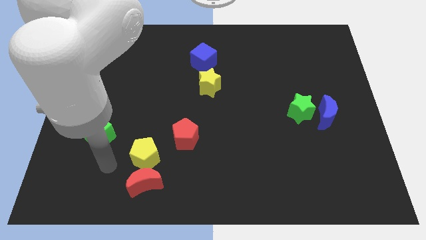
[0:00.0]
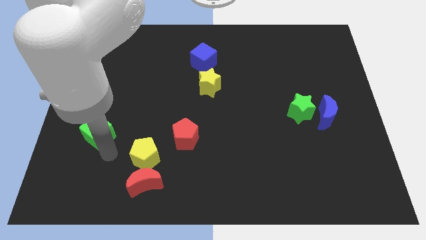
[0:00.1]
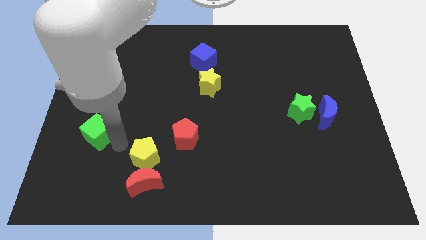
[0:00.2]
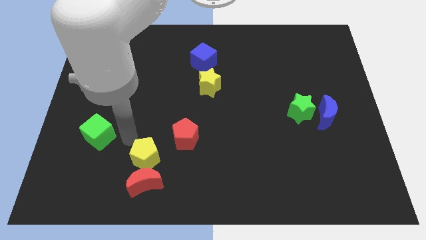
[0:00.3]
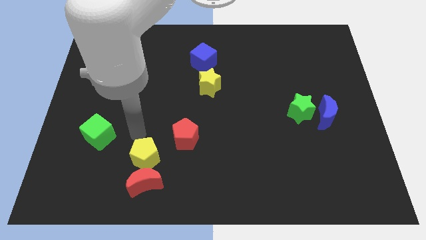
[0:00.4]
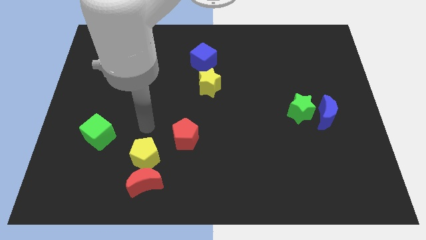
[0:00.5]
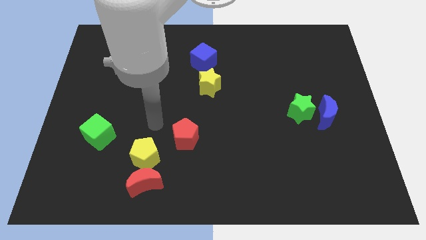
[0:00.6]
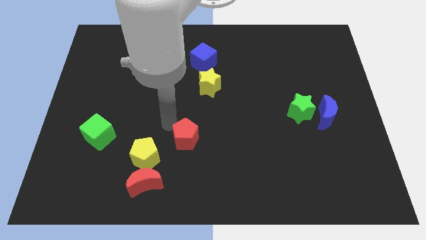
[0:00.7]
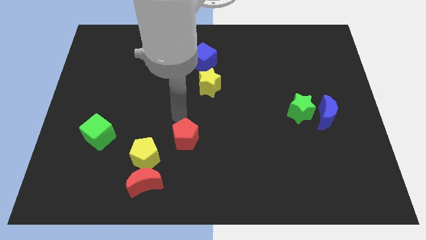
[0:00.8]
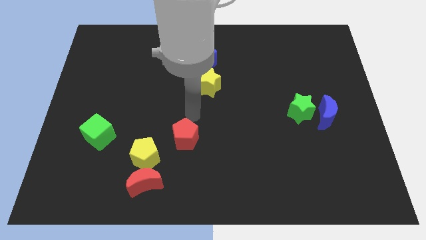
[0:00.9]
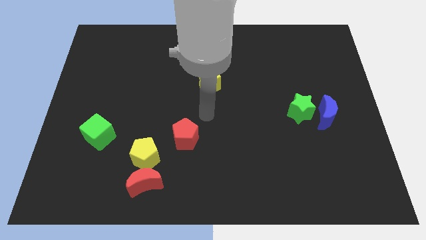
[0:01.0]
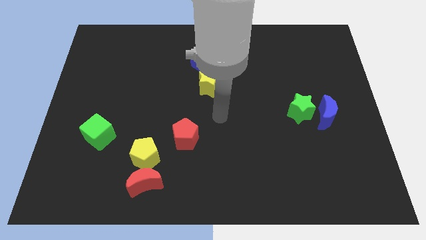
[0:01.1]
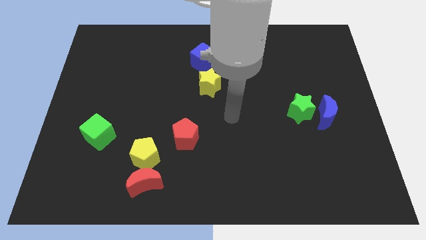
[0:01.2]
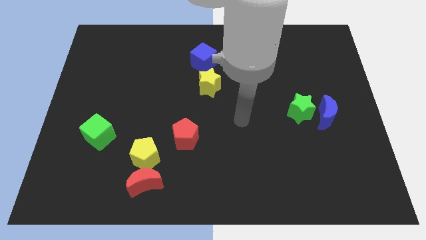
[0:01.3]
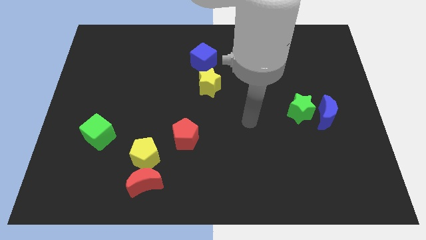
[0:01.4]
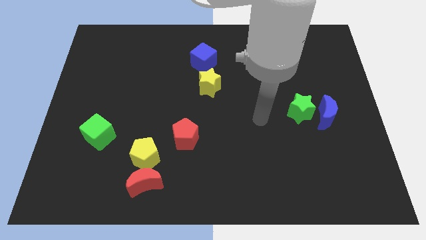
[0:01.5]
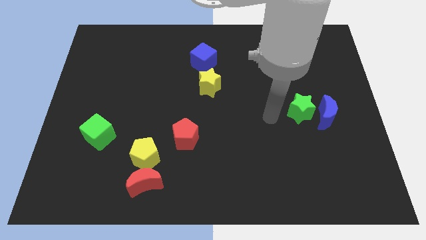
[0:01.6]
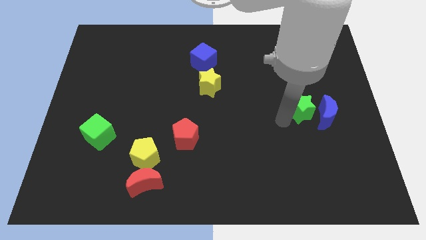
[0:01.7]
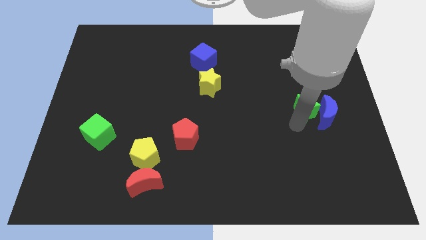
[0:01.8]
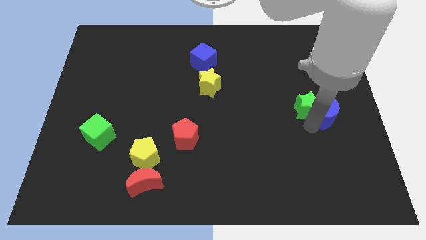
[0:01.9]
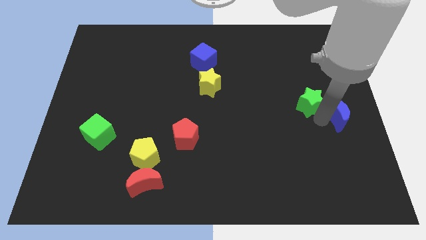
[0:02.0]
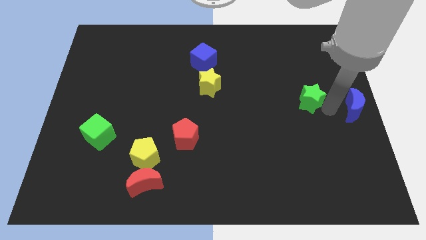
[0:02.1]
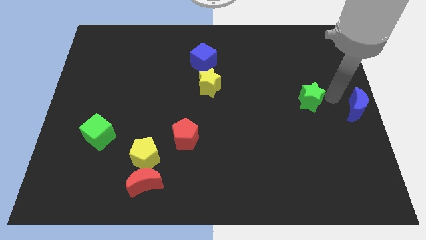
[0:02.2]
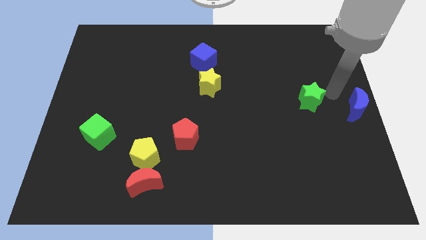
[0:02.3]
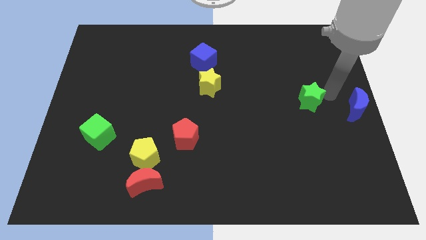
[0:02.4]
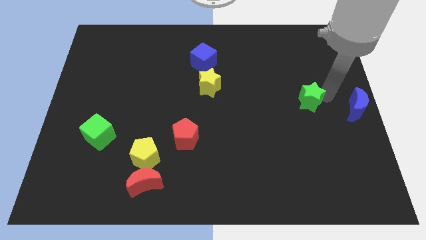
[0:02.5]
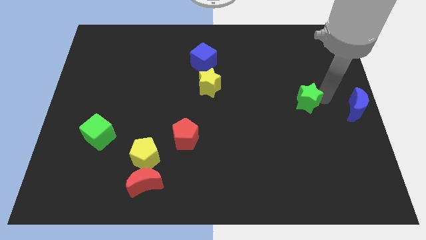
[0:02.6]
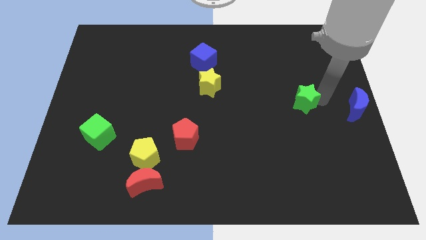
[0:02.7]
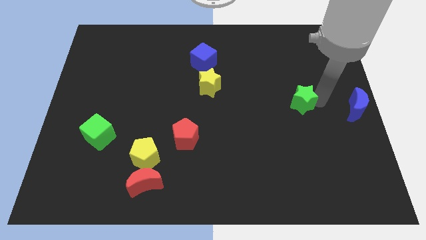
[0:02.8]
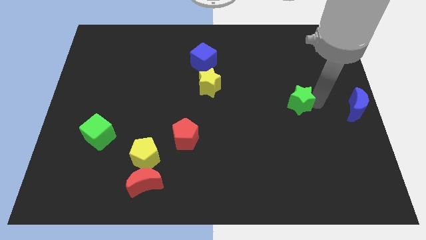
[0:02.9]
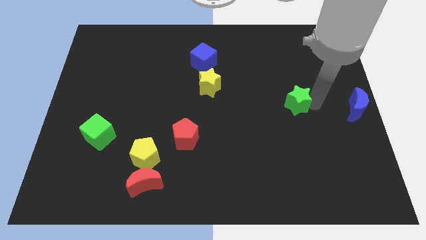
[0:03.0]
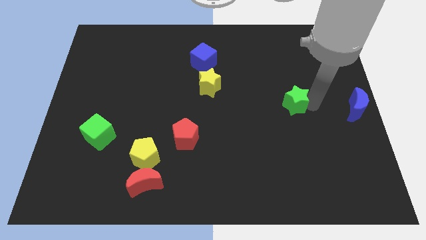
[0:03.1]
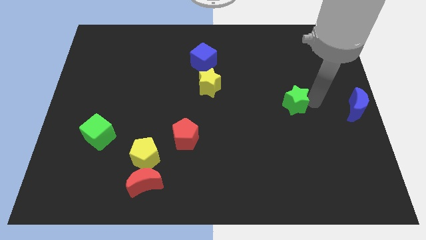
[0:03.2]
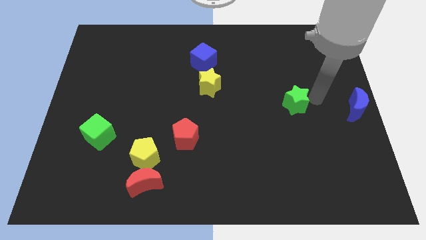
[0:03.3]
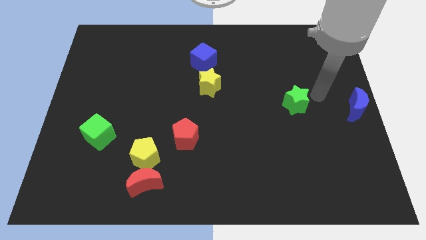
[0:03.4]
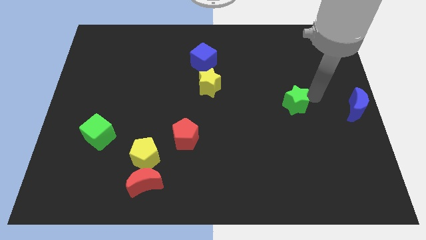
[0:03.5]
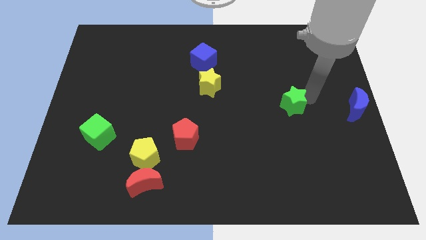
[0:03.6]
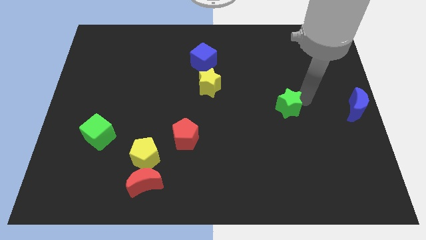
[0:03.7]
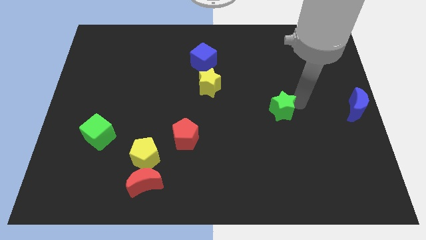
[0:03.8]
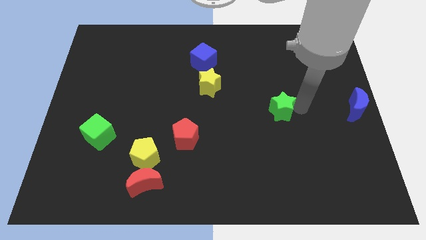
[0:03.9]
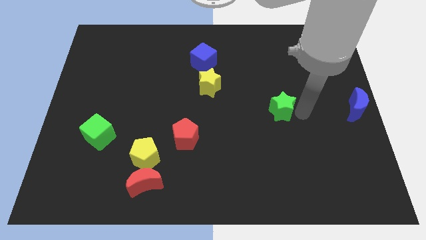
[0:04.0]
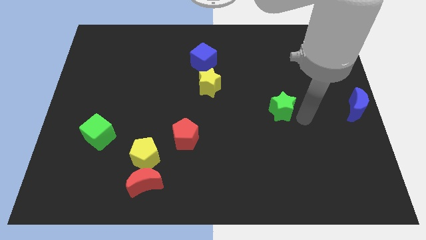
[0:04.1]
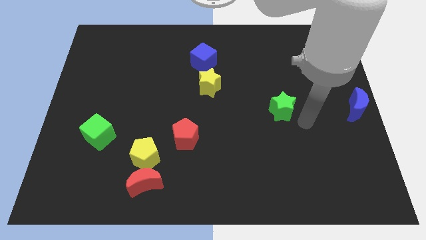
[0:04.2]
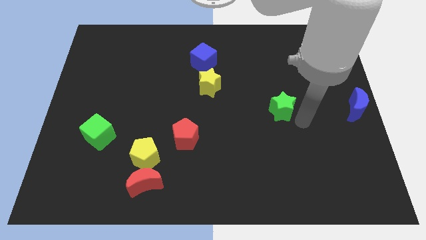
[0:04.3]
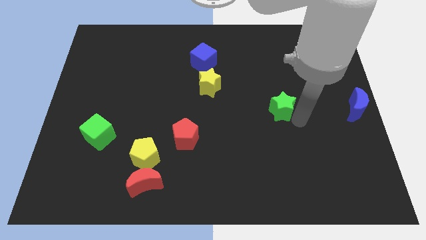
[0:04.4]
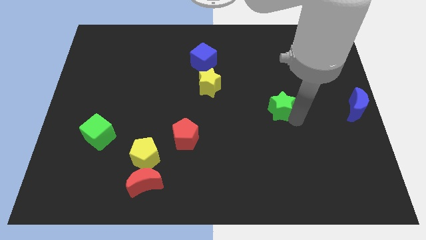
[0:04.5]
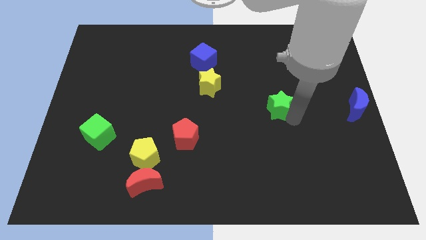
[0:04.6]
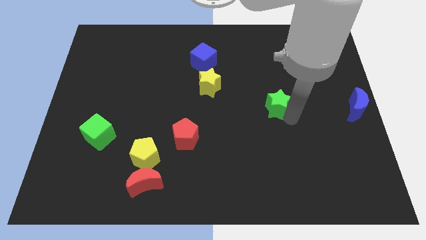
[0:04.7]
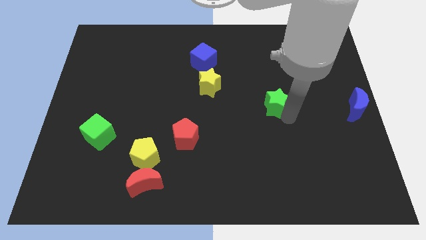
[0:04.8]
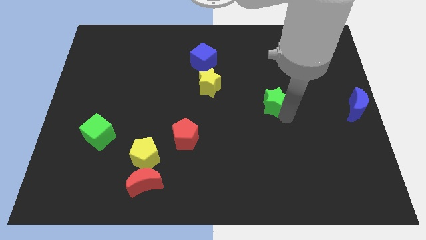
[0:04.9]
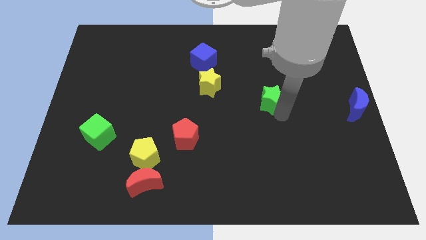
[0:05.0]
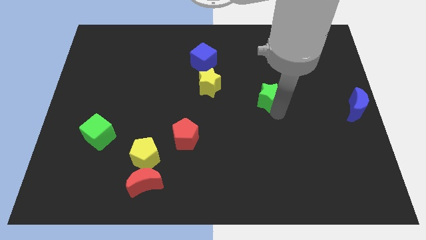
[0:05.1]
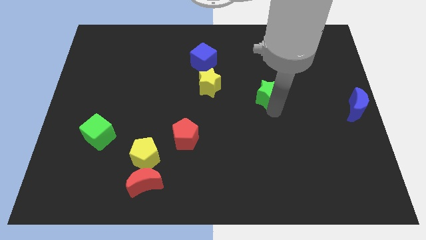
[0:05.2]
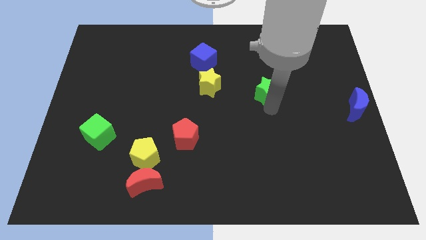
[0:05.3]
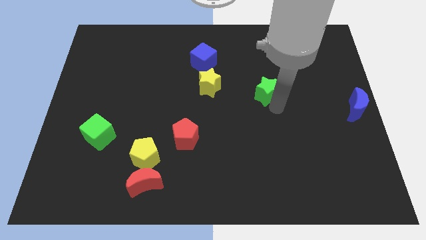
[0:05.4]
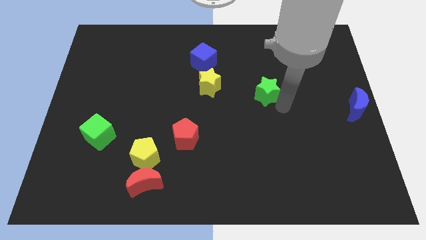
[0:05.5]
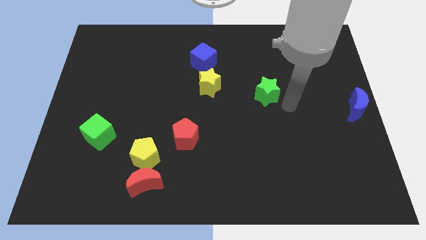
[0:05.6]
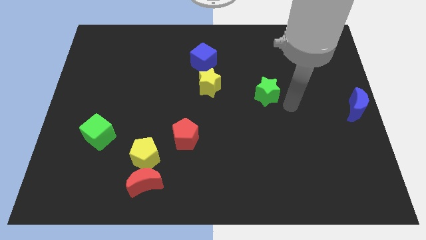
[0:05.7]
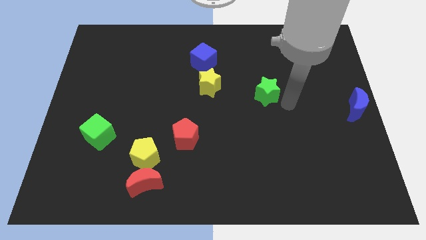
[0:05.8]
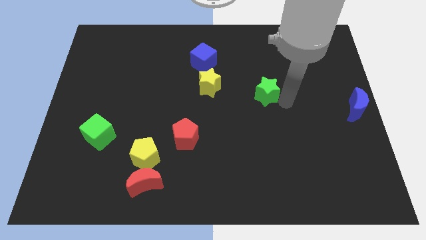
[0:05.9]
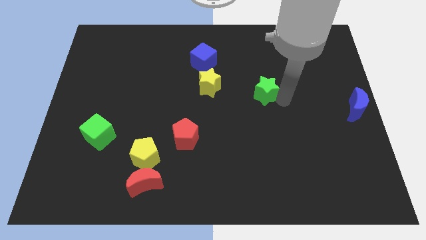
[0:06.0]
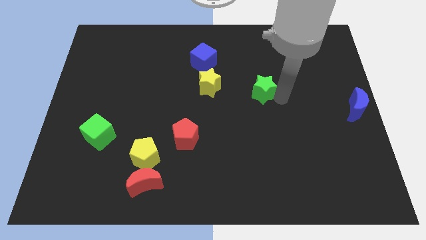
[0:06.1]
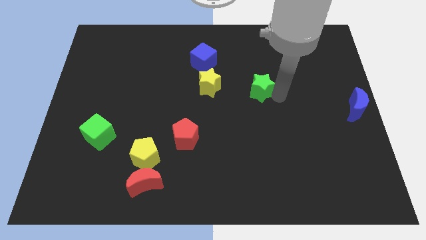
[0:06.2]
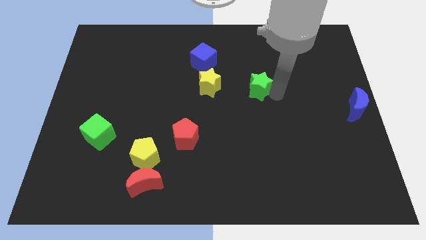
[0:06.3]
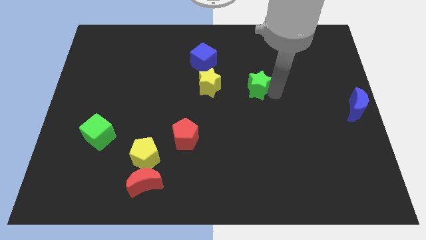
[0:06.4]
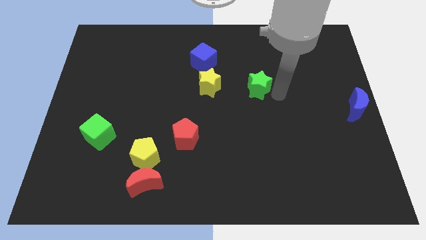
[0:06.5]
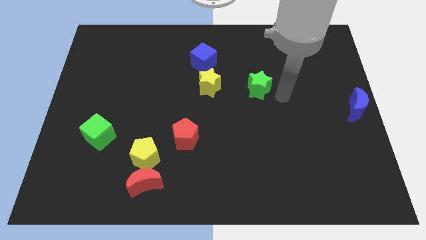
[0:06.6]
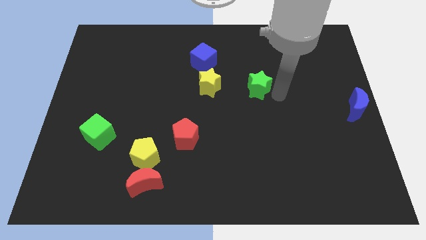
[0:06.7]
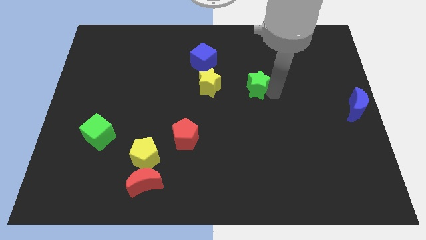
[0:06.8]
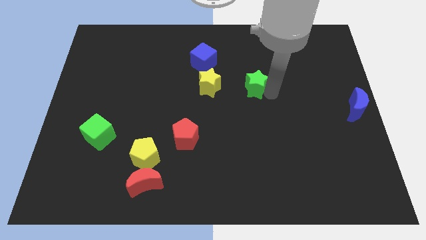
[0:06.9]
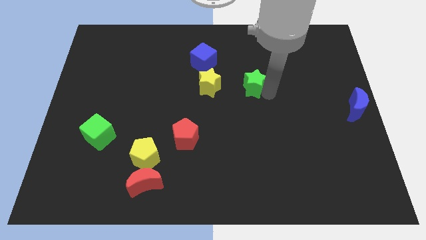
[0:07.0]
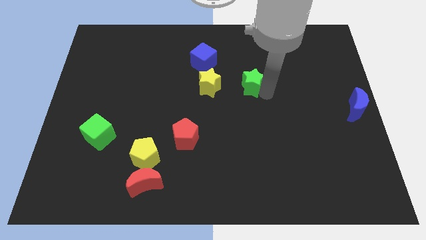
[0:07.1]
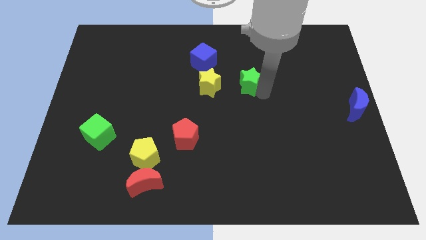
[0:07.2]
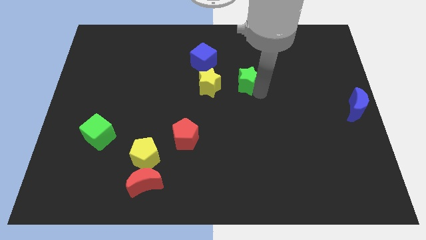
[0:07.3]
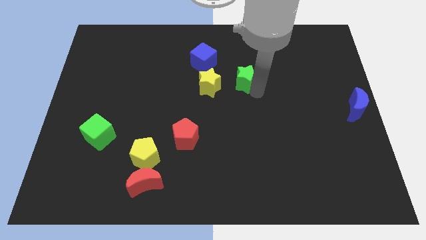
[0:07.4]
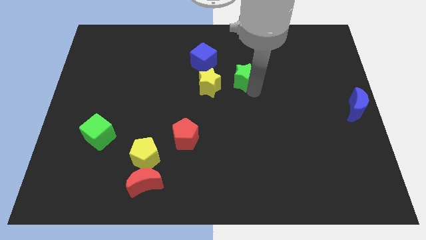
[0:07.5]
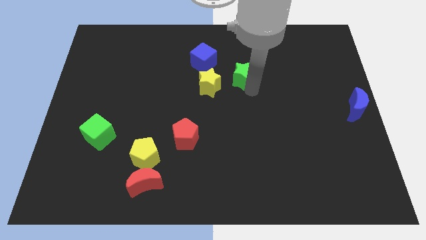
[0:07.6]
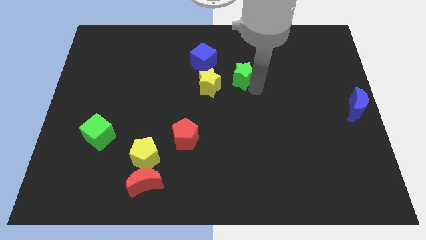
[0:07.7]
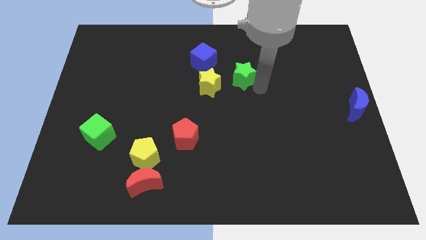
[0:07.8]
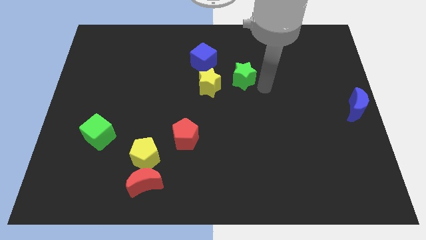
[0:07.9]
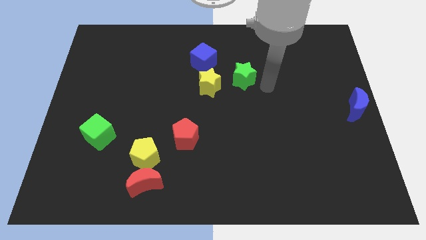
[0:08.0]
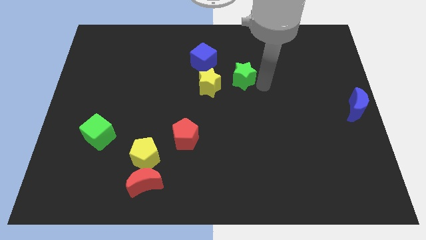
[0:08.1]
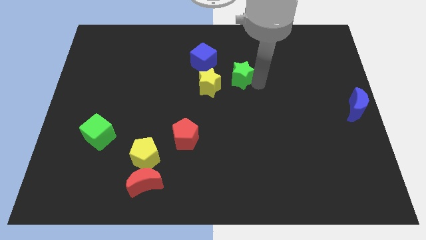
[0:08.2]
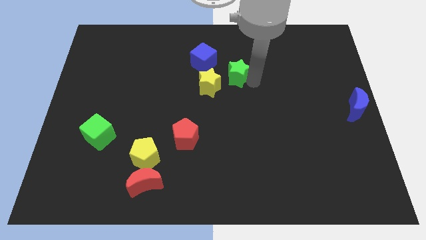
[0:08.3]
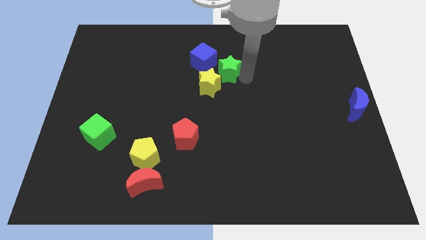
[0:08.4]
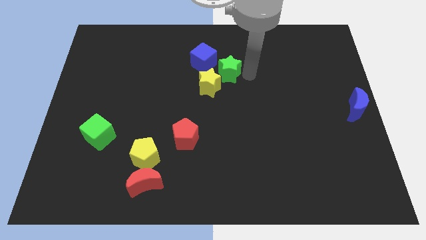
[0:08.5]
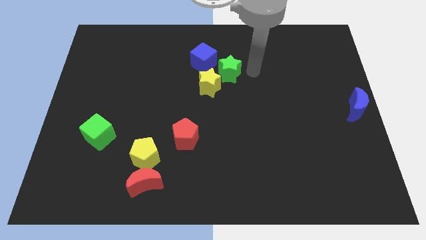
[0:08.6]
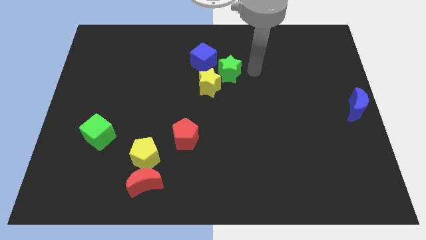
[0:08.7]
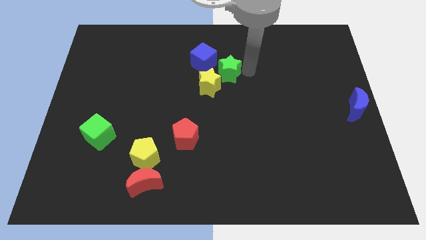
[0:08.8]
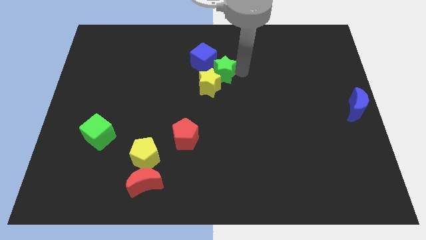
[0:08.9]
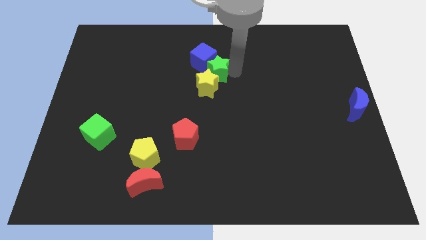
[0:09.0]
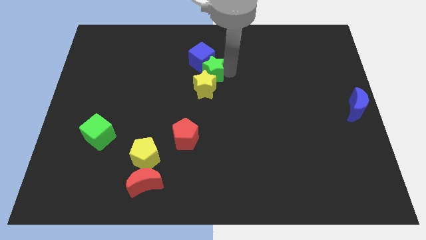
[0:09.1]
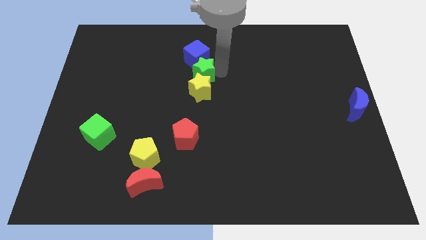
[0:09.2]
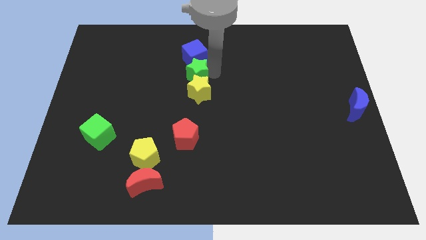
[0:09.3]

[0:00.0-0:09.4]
push the green star diagonally down and to the left of the blue cube
